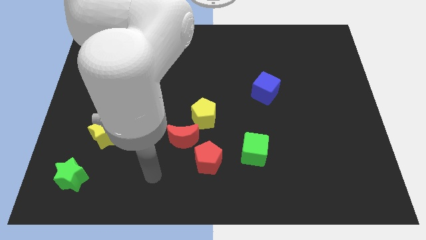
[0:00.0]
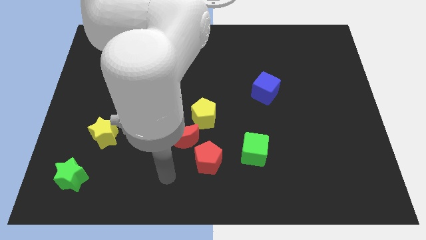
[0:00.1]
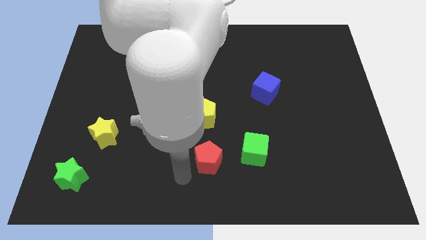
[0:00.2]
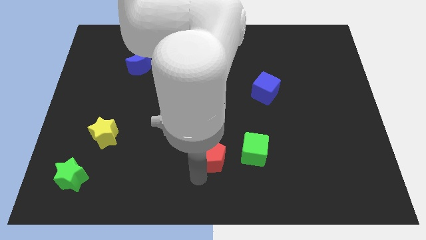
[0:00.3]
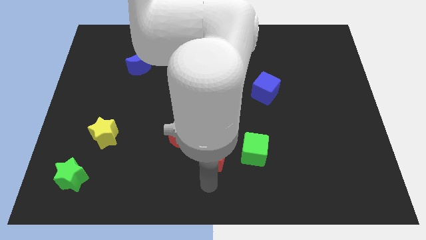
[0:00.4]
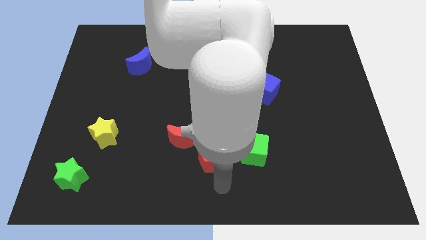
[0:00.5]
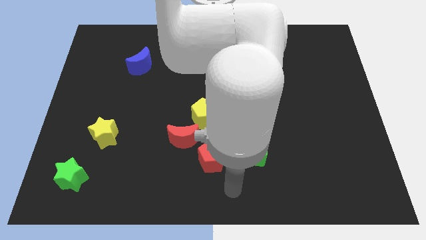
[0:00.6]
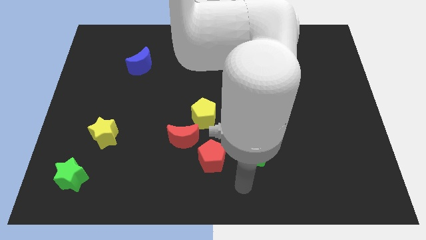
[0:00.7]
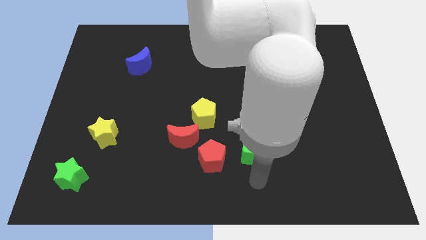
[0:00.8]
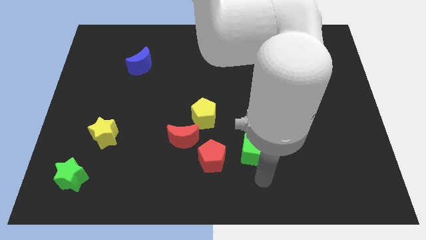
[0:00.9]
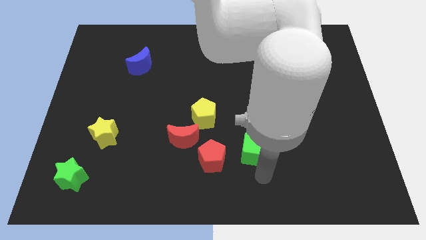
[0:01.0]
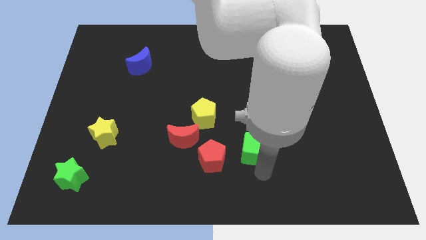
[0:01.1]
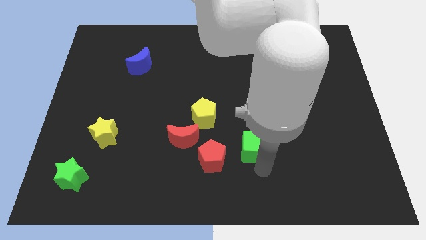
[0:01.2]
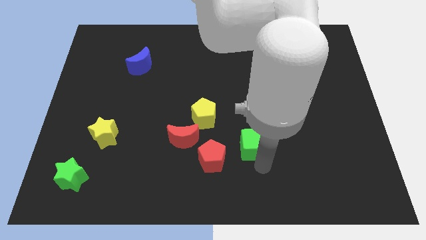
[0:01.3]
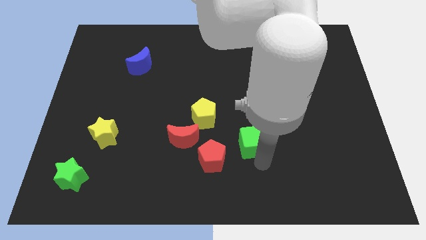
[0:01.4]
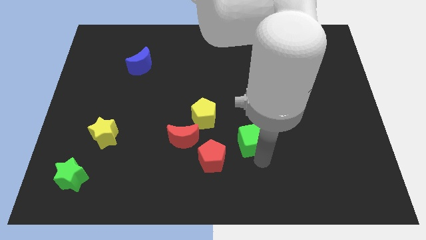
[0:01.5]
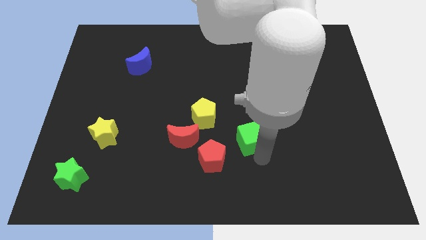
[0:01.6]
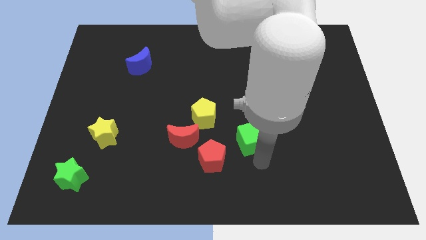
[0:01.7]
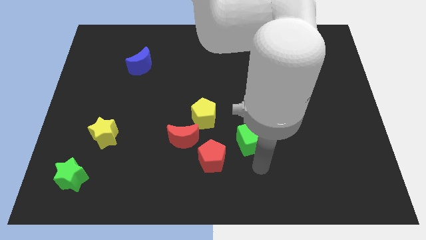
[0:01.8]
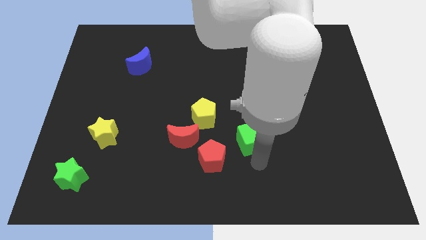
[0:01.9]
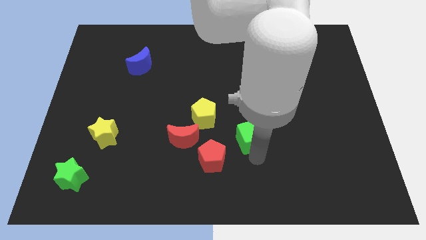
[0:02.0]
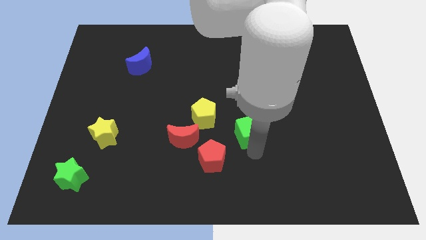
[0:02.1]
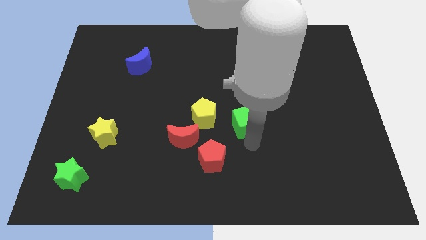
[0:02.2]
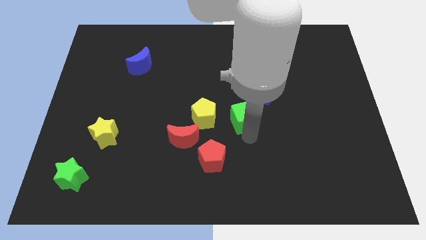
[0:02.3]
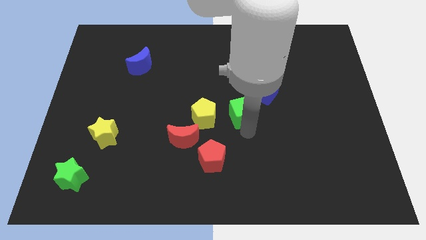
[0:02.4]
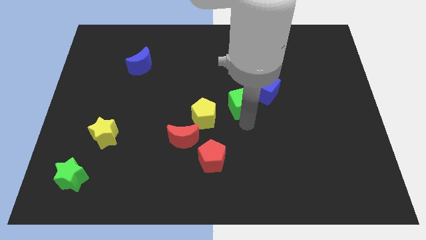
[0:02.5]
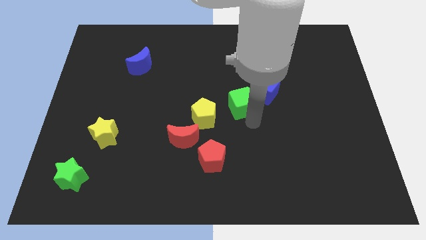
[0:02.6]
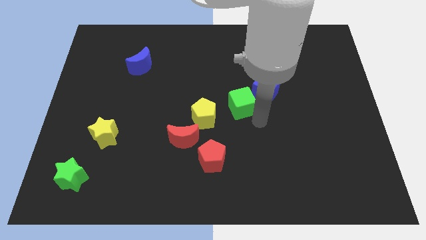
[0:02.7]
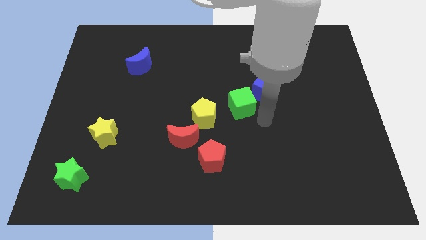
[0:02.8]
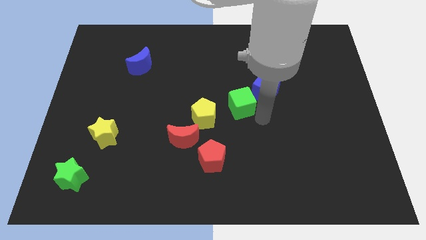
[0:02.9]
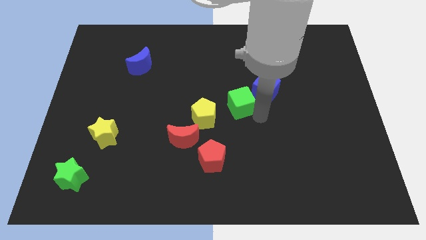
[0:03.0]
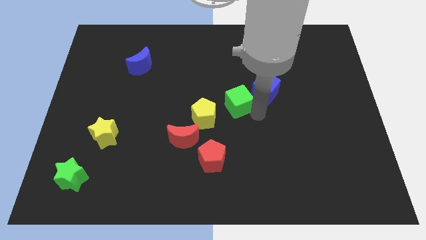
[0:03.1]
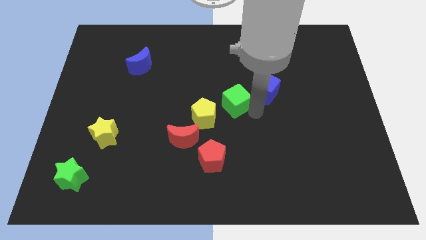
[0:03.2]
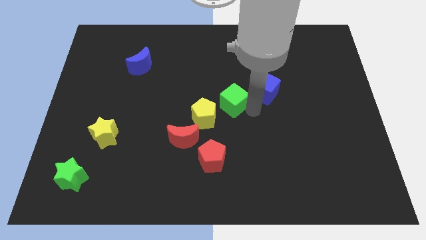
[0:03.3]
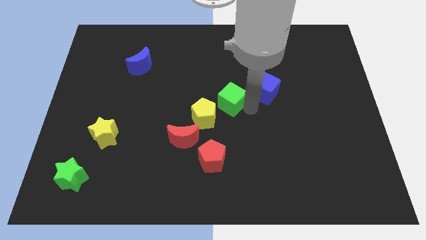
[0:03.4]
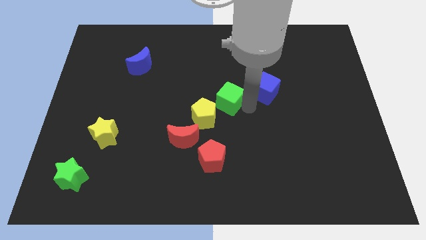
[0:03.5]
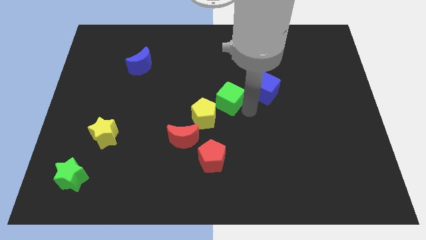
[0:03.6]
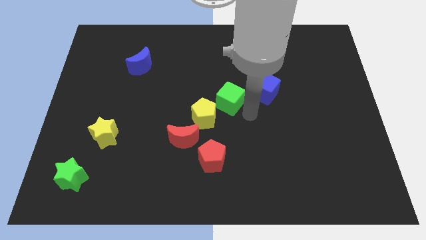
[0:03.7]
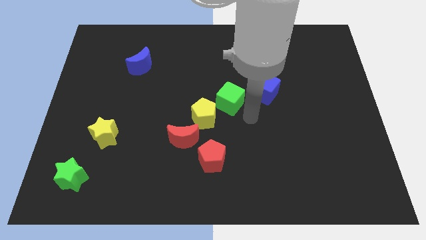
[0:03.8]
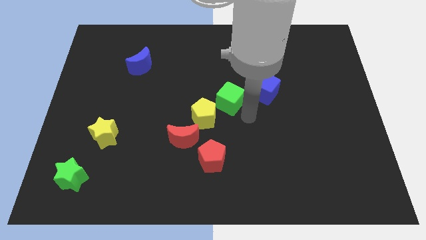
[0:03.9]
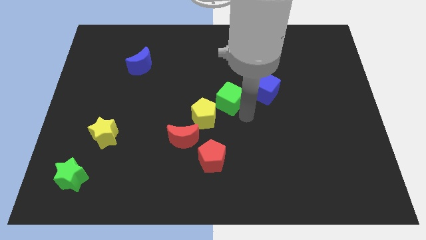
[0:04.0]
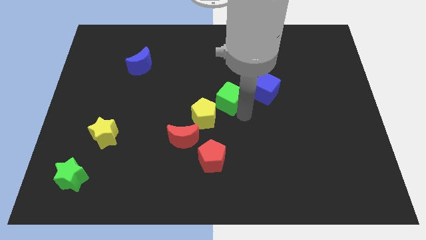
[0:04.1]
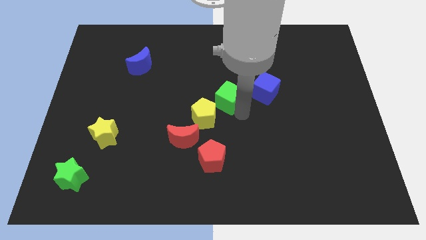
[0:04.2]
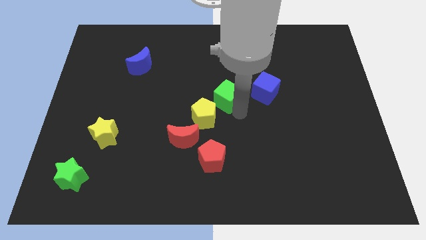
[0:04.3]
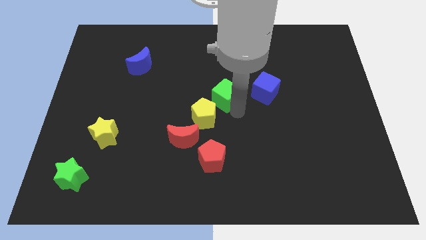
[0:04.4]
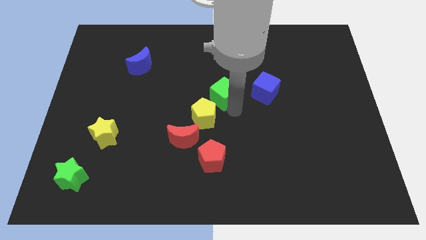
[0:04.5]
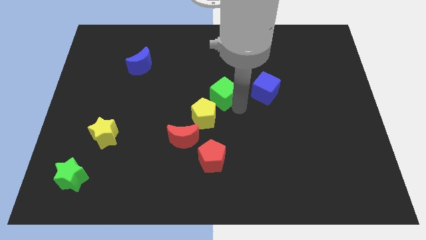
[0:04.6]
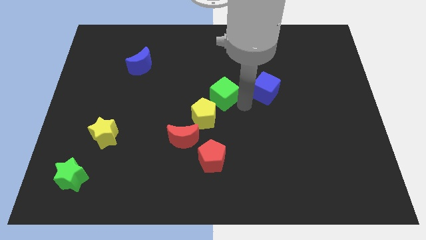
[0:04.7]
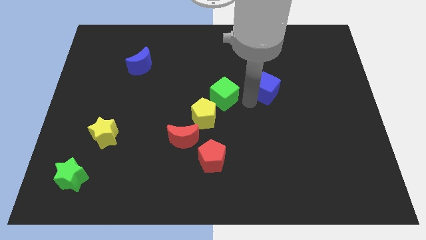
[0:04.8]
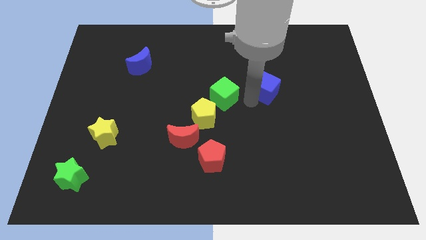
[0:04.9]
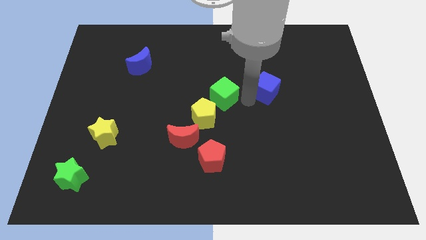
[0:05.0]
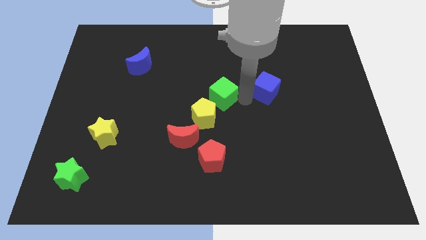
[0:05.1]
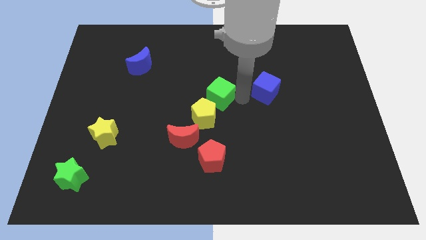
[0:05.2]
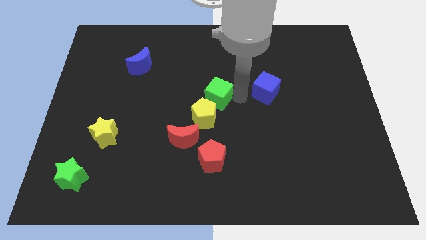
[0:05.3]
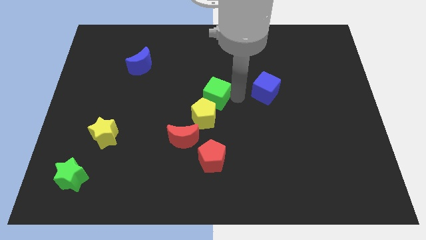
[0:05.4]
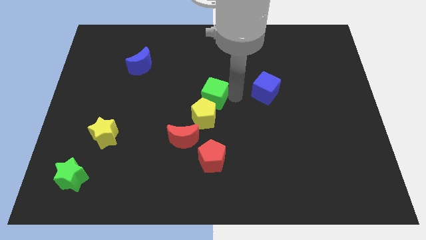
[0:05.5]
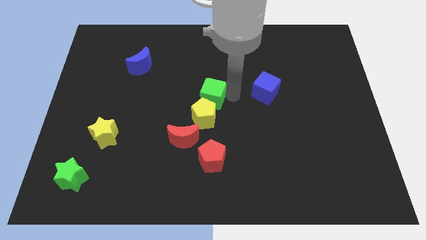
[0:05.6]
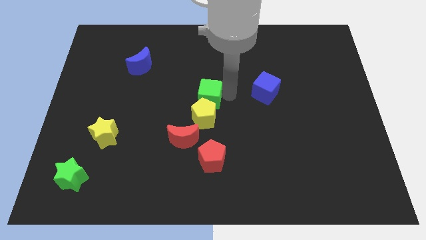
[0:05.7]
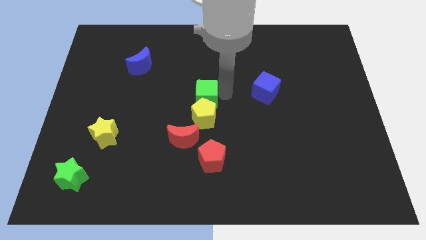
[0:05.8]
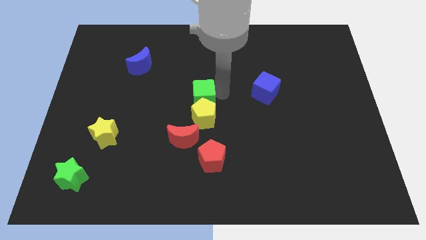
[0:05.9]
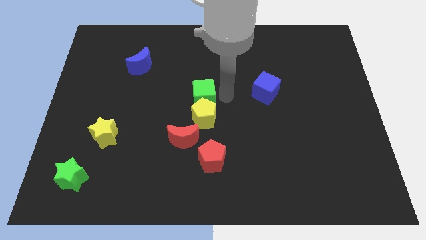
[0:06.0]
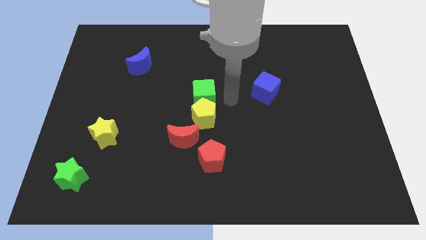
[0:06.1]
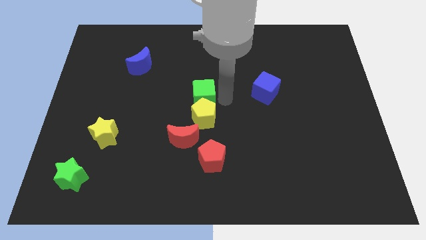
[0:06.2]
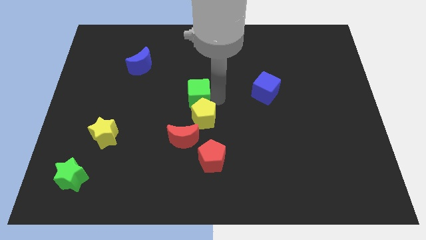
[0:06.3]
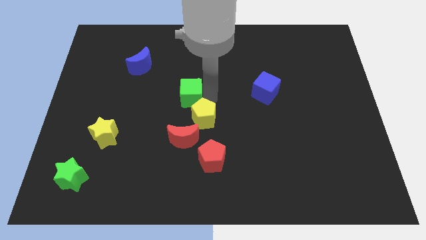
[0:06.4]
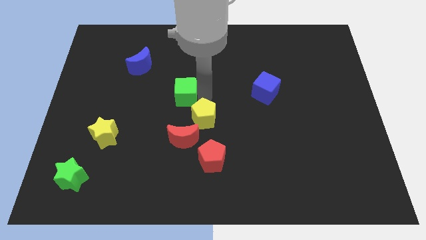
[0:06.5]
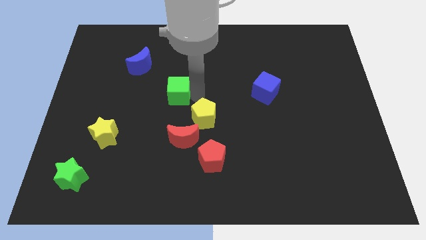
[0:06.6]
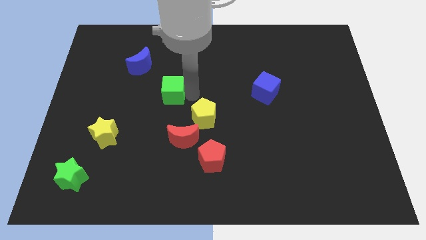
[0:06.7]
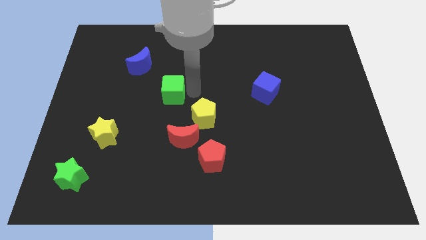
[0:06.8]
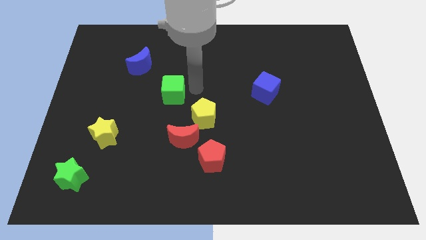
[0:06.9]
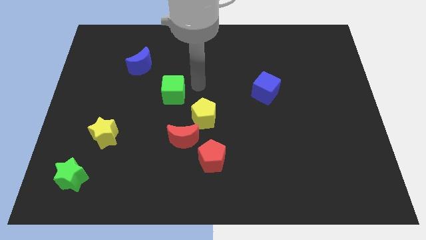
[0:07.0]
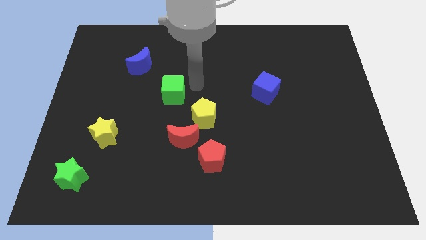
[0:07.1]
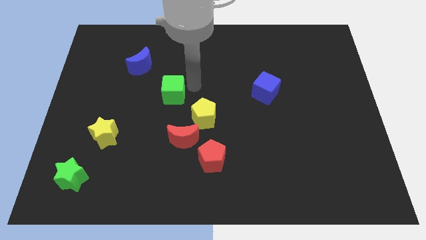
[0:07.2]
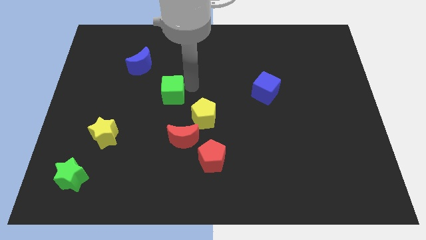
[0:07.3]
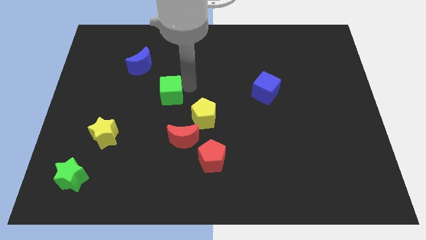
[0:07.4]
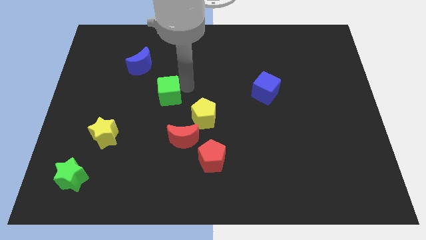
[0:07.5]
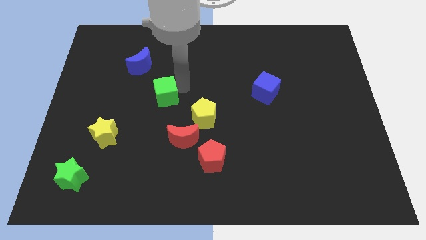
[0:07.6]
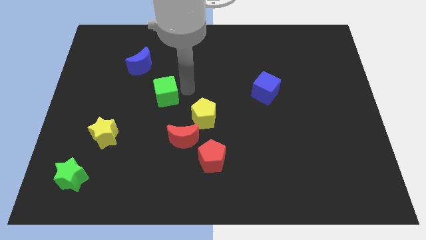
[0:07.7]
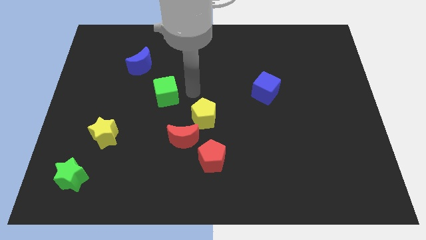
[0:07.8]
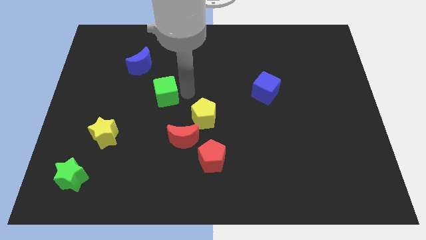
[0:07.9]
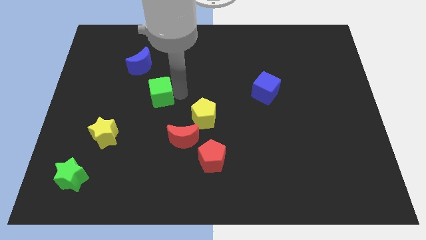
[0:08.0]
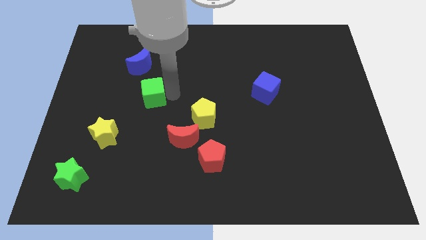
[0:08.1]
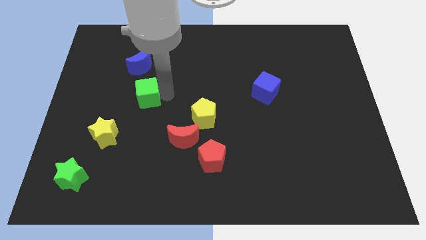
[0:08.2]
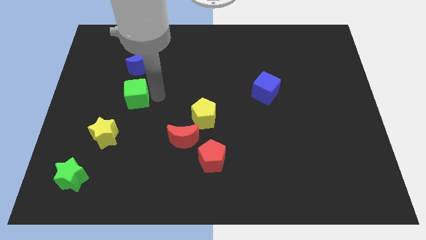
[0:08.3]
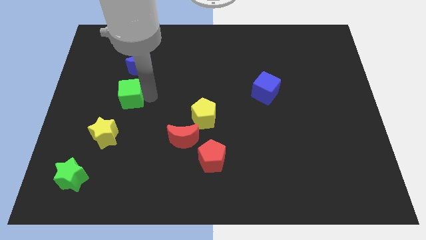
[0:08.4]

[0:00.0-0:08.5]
slide the green cube above the yellow star
